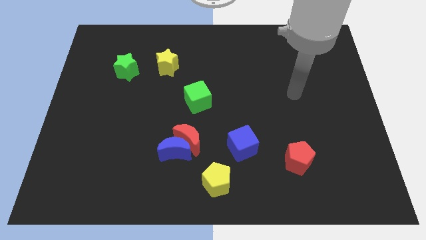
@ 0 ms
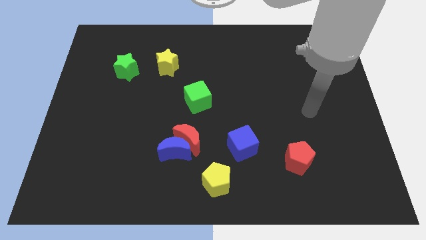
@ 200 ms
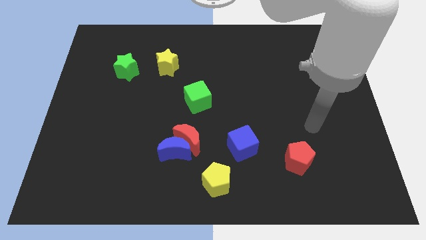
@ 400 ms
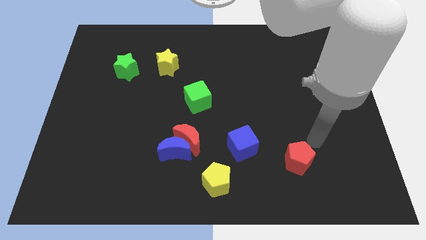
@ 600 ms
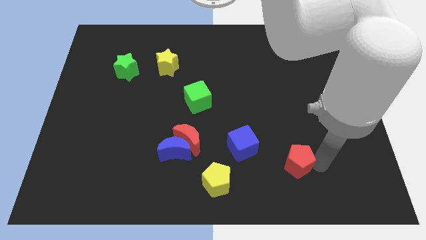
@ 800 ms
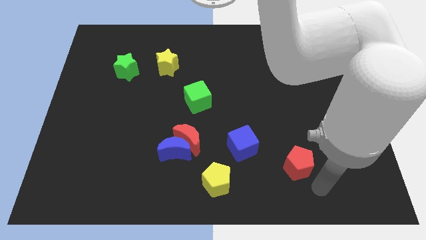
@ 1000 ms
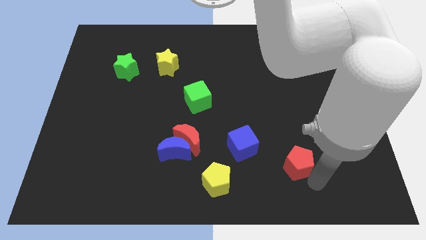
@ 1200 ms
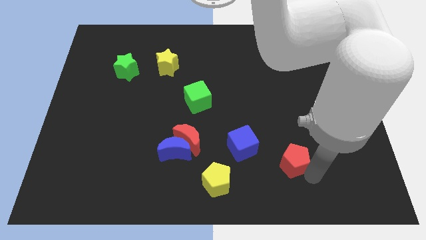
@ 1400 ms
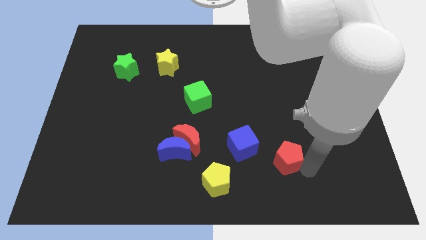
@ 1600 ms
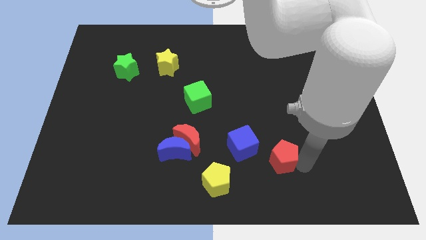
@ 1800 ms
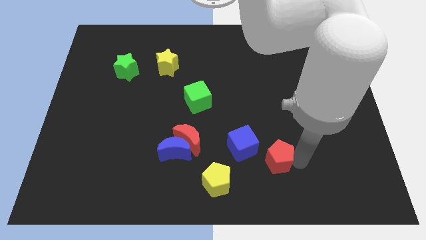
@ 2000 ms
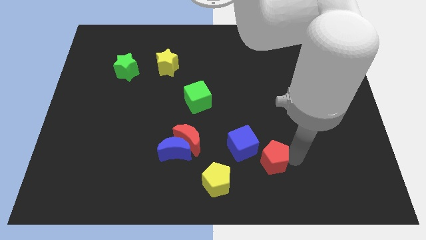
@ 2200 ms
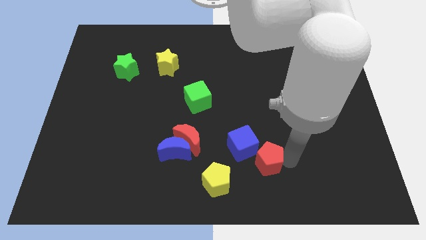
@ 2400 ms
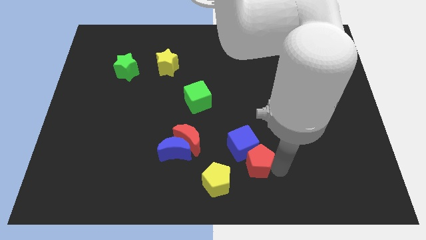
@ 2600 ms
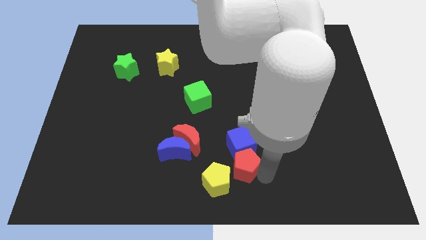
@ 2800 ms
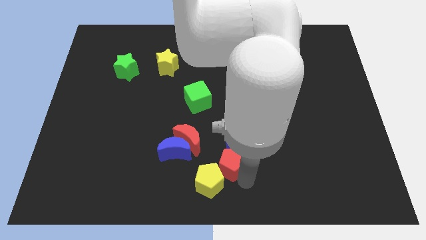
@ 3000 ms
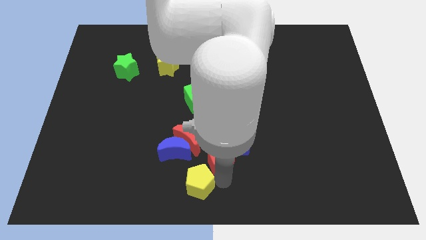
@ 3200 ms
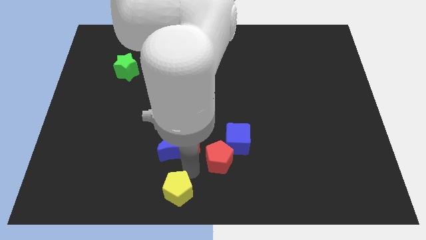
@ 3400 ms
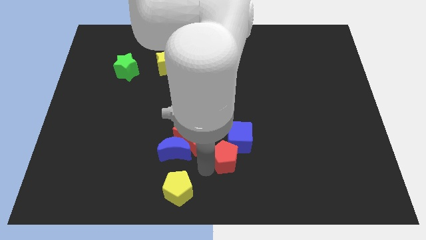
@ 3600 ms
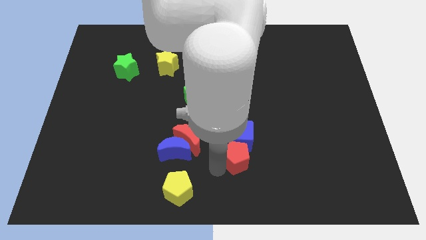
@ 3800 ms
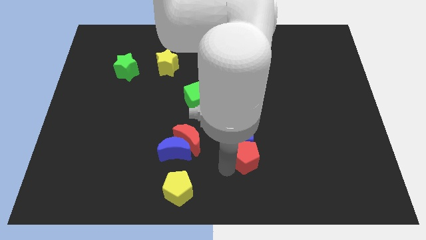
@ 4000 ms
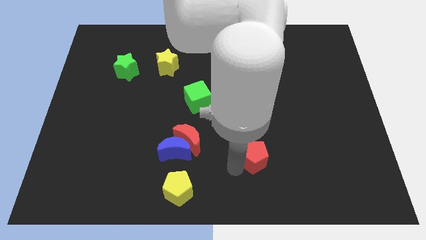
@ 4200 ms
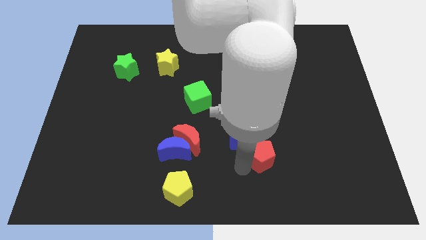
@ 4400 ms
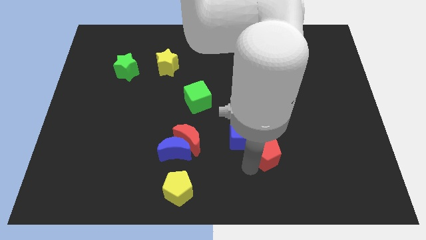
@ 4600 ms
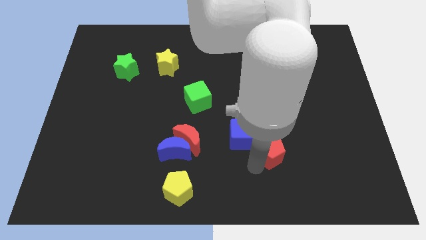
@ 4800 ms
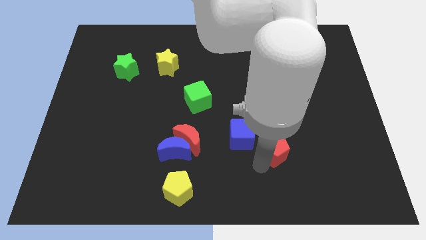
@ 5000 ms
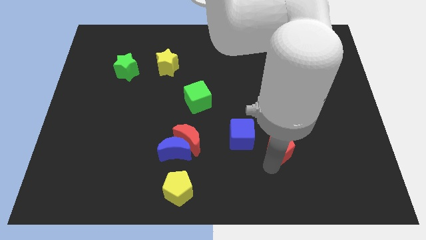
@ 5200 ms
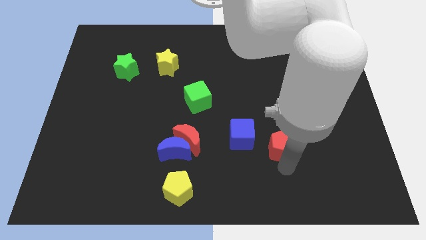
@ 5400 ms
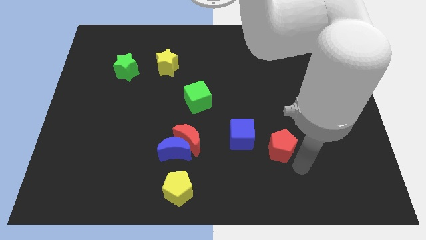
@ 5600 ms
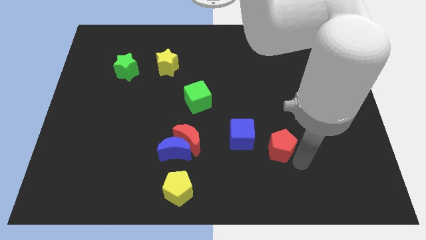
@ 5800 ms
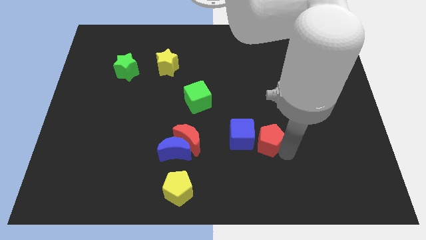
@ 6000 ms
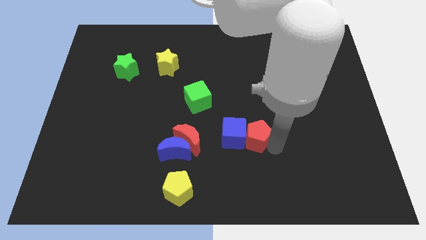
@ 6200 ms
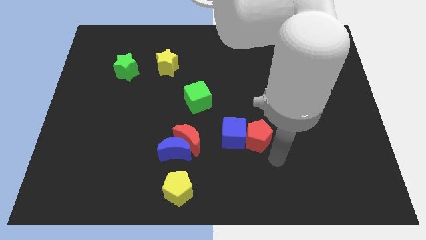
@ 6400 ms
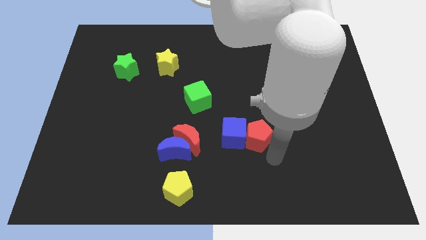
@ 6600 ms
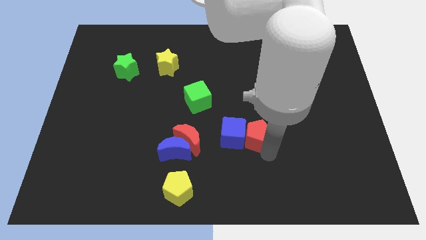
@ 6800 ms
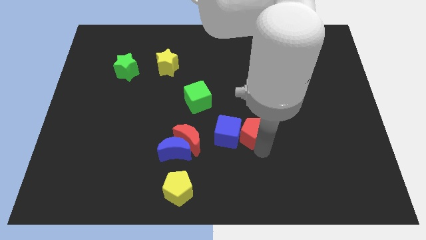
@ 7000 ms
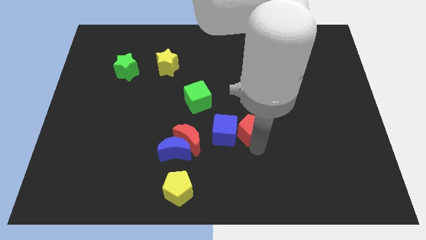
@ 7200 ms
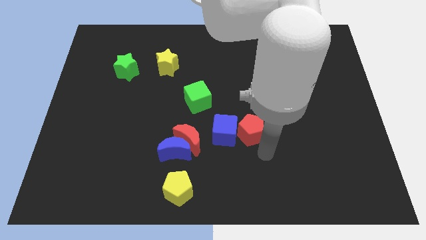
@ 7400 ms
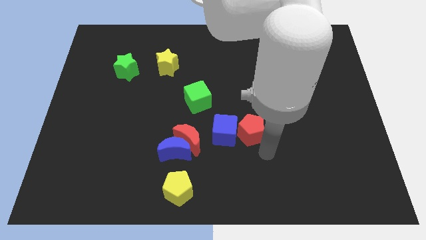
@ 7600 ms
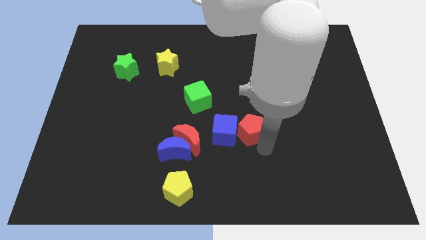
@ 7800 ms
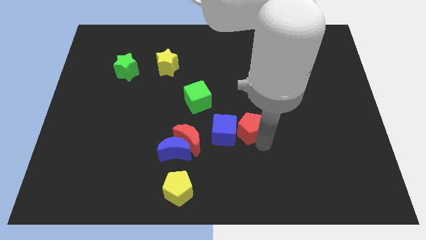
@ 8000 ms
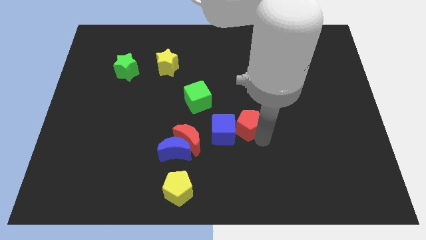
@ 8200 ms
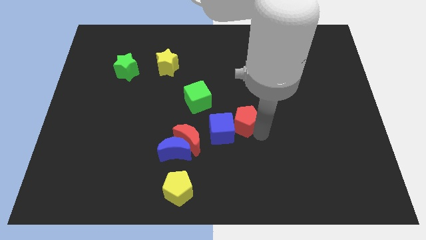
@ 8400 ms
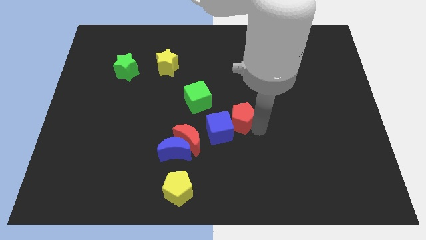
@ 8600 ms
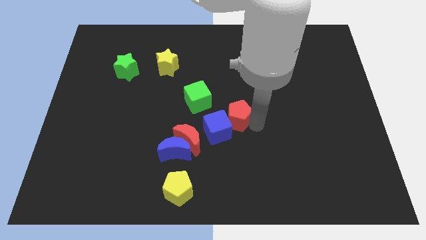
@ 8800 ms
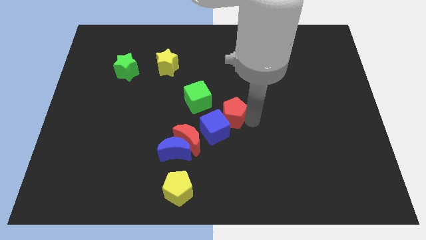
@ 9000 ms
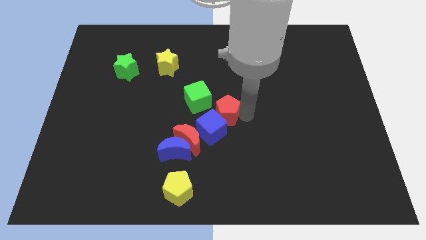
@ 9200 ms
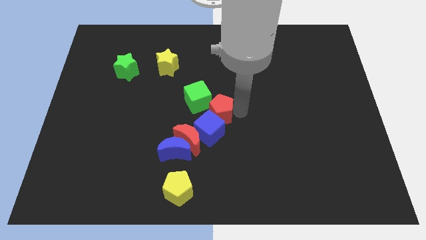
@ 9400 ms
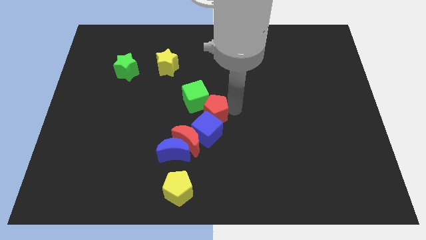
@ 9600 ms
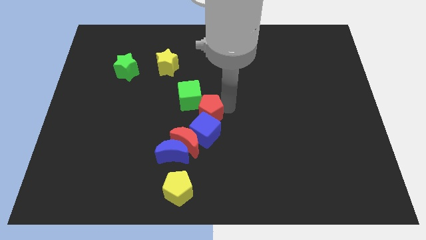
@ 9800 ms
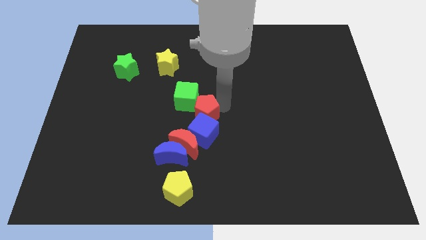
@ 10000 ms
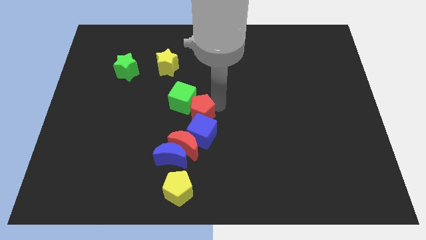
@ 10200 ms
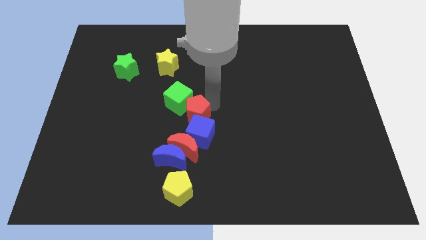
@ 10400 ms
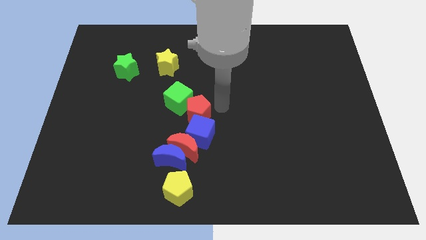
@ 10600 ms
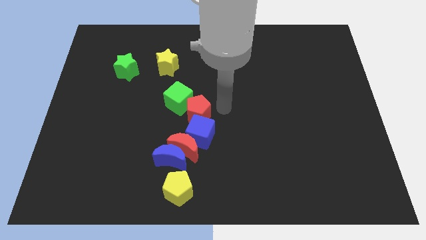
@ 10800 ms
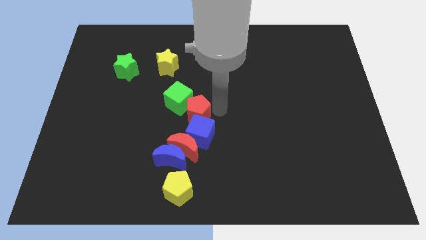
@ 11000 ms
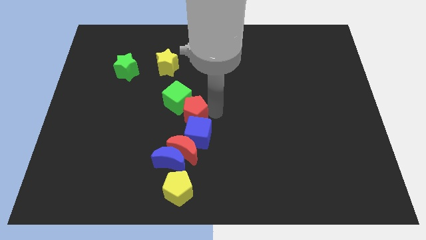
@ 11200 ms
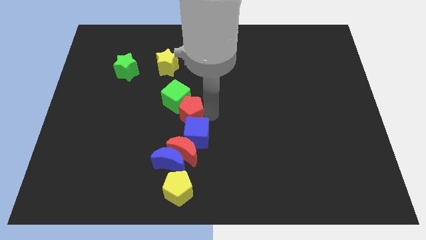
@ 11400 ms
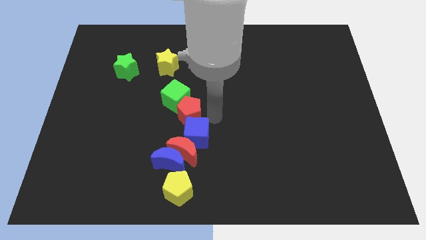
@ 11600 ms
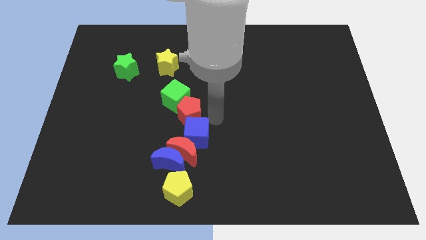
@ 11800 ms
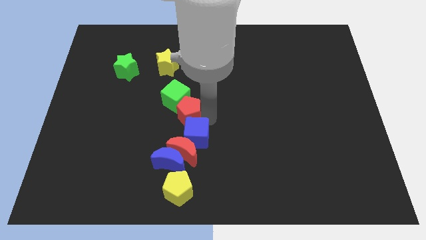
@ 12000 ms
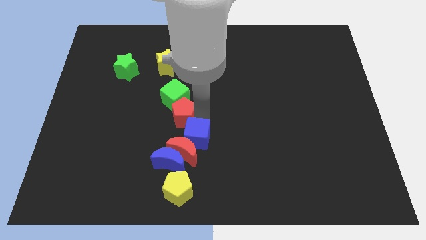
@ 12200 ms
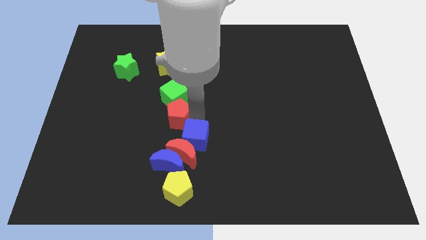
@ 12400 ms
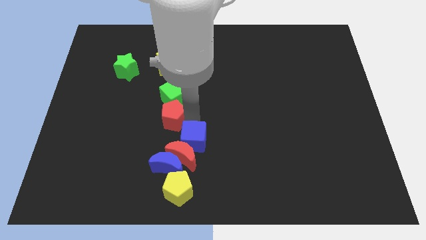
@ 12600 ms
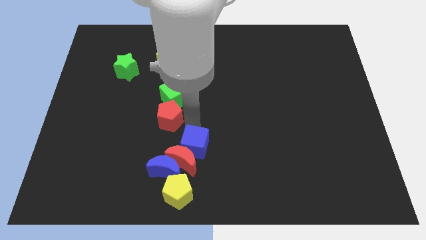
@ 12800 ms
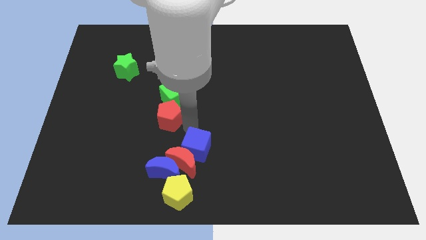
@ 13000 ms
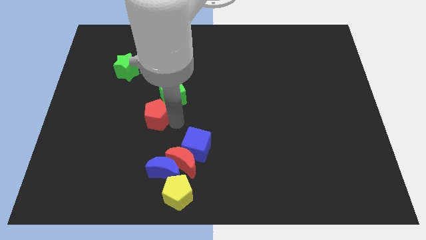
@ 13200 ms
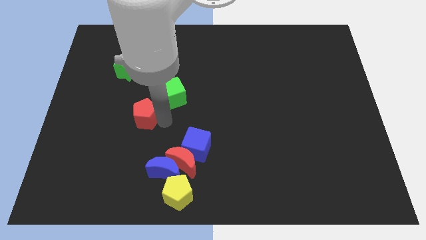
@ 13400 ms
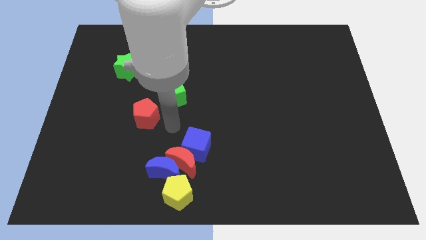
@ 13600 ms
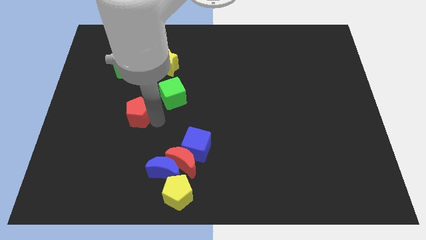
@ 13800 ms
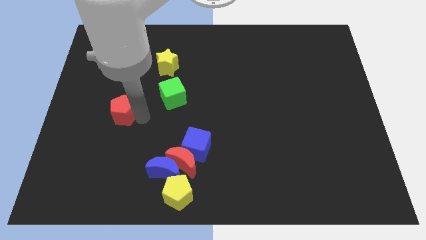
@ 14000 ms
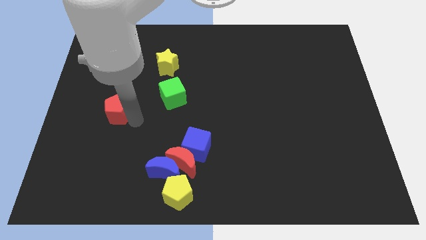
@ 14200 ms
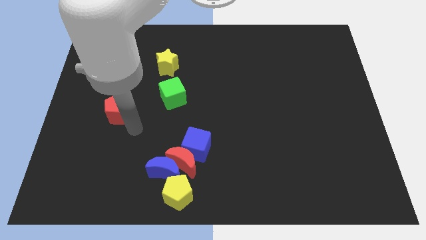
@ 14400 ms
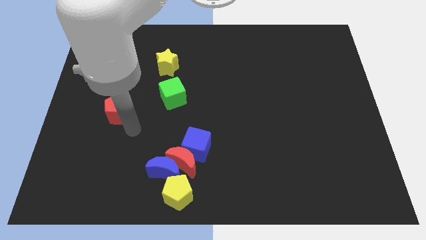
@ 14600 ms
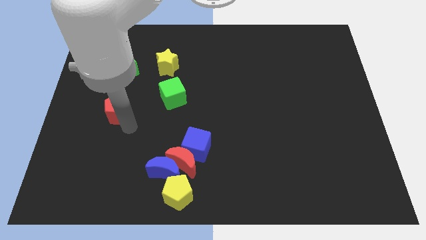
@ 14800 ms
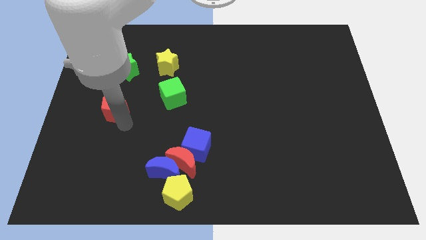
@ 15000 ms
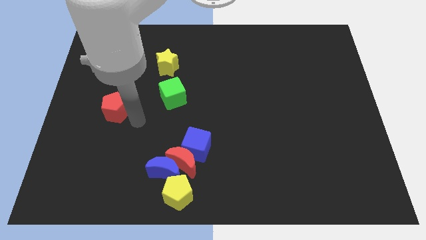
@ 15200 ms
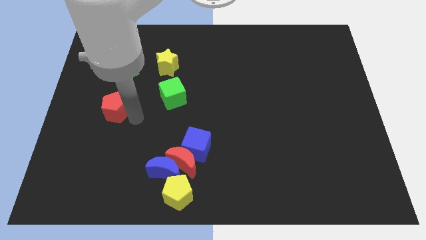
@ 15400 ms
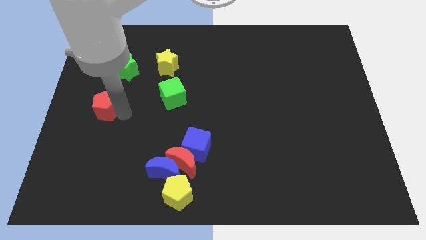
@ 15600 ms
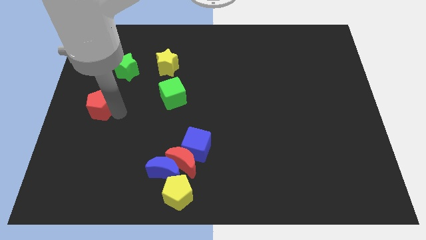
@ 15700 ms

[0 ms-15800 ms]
push the red pentagon to the center left
